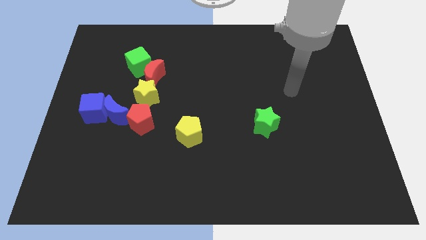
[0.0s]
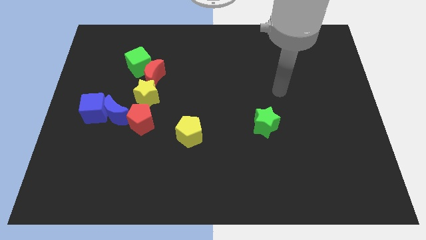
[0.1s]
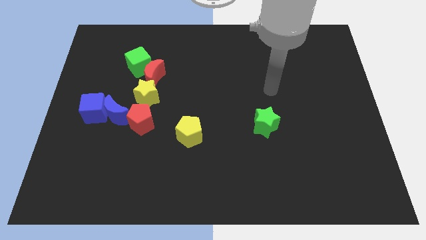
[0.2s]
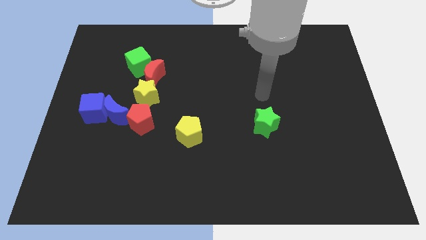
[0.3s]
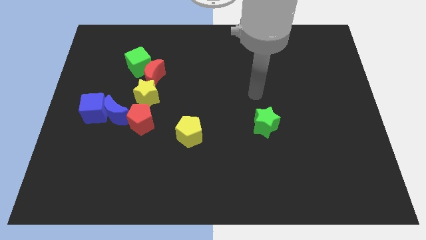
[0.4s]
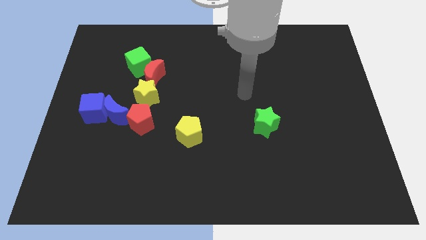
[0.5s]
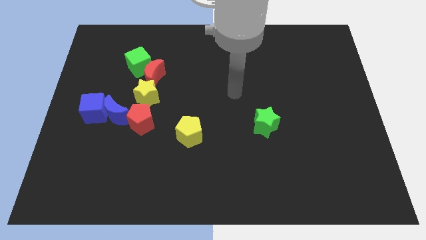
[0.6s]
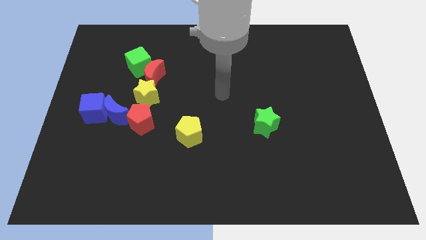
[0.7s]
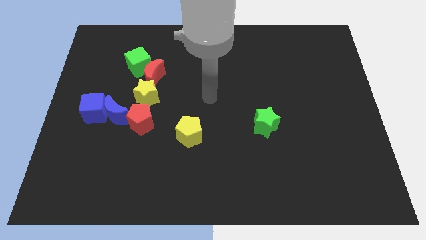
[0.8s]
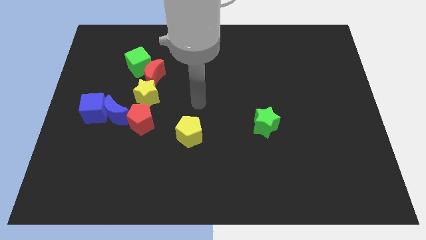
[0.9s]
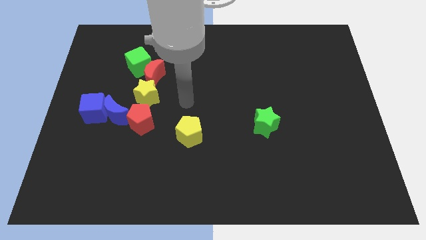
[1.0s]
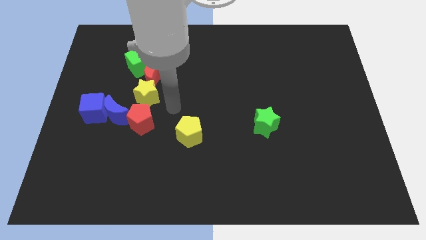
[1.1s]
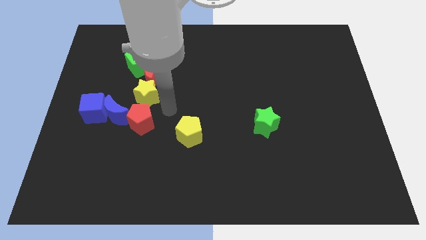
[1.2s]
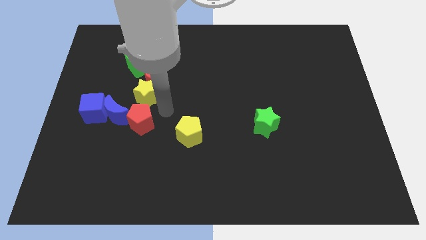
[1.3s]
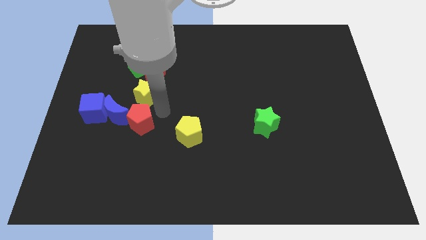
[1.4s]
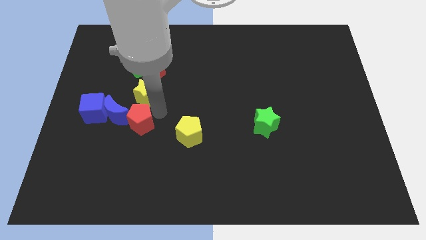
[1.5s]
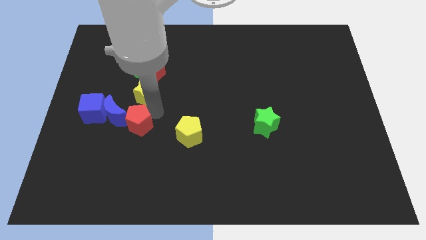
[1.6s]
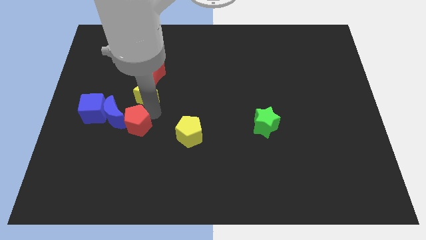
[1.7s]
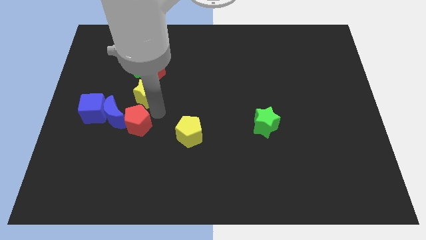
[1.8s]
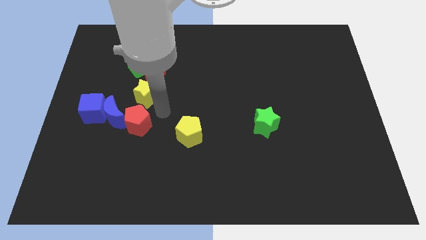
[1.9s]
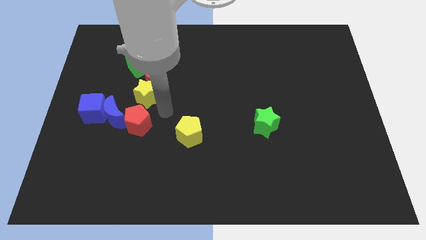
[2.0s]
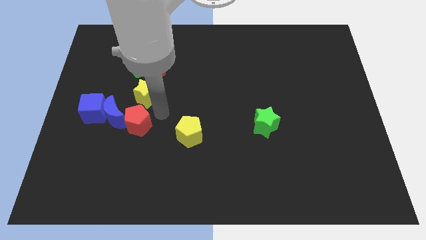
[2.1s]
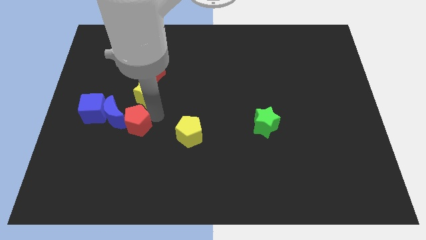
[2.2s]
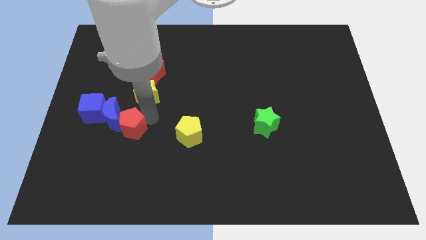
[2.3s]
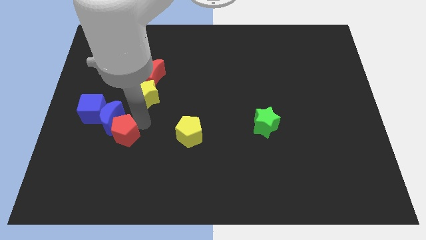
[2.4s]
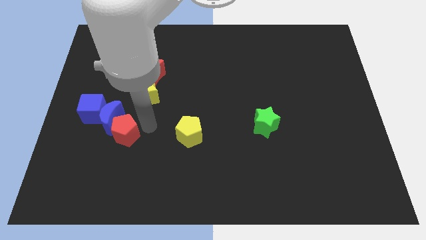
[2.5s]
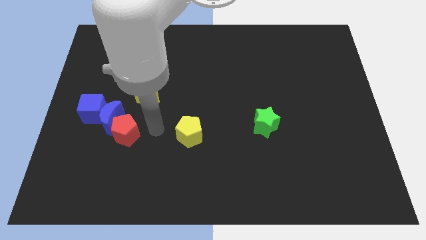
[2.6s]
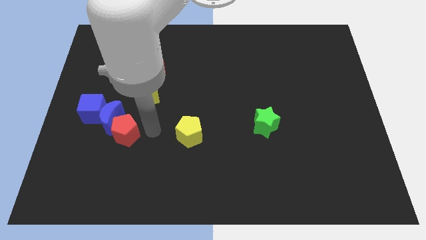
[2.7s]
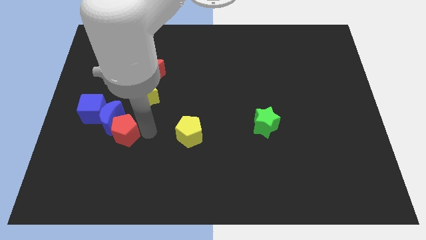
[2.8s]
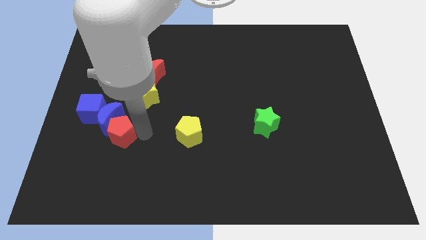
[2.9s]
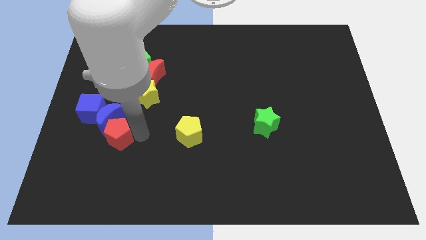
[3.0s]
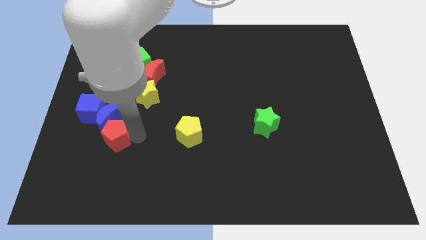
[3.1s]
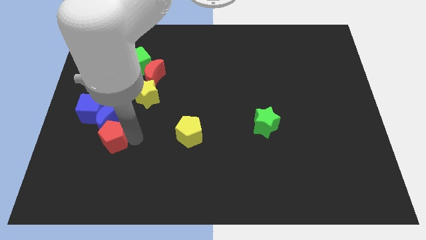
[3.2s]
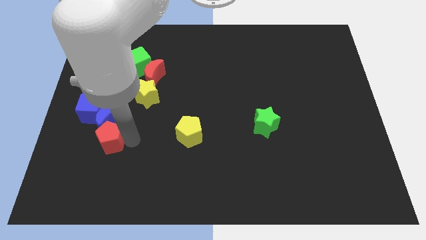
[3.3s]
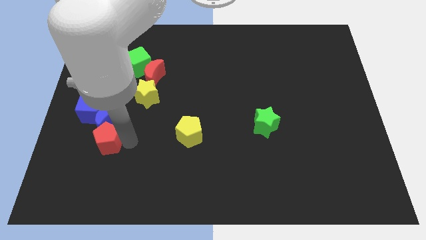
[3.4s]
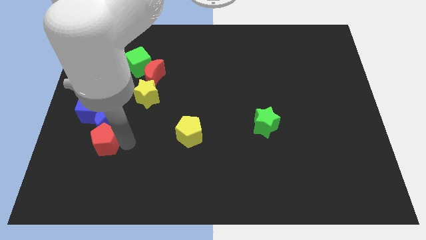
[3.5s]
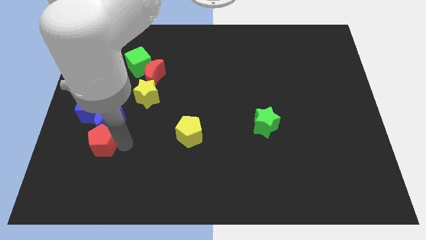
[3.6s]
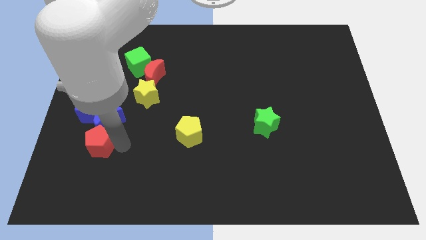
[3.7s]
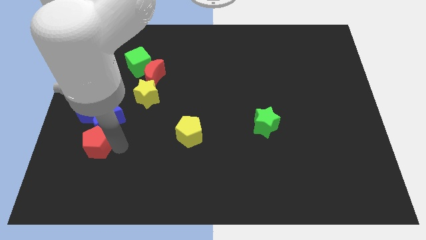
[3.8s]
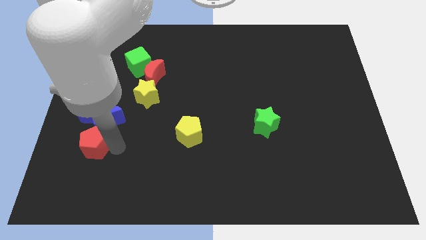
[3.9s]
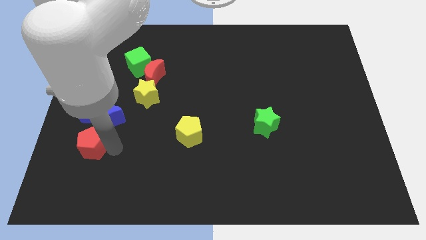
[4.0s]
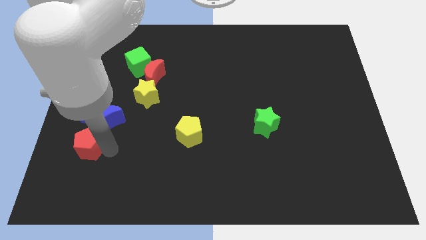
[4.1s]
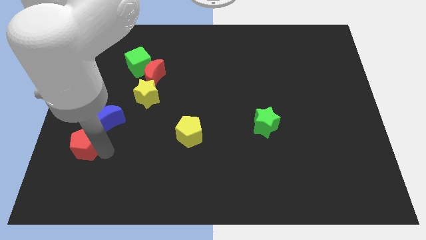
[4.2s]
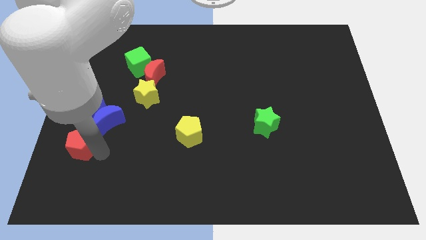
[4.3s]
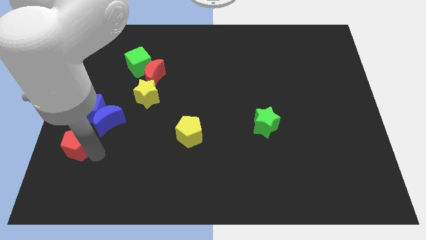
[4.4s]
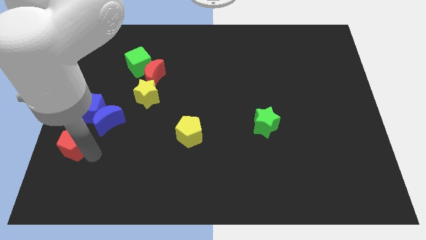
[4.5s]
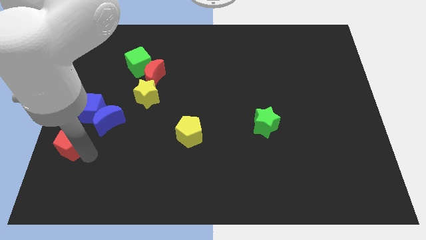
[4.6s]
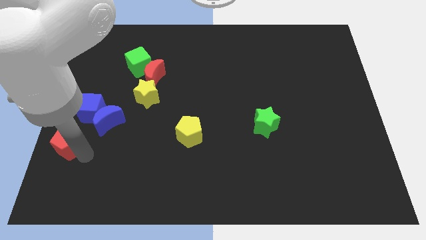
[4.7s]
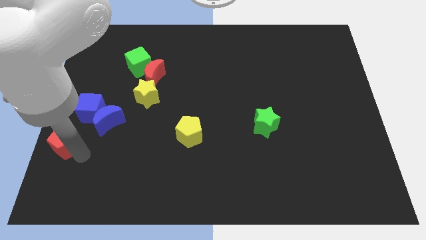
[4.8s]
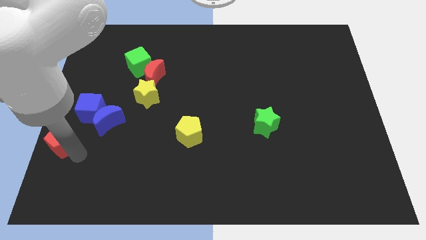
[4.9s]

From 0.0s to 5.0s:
slide the red pentagon to the center left

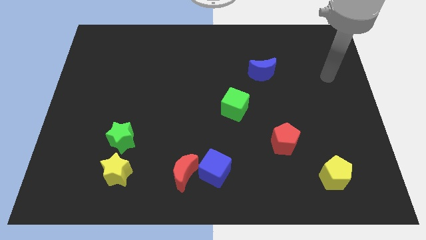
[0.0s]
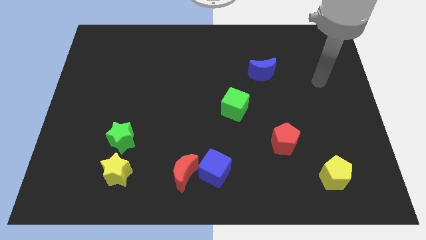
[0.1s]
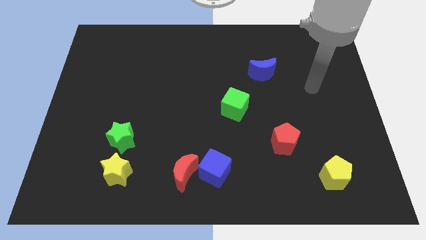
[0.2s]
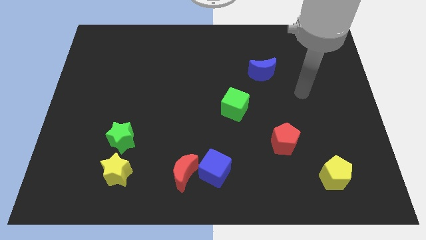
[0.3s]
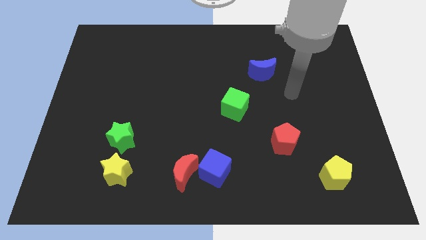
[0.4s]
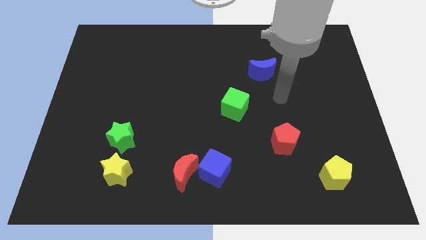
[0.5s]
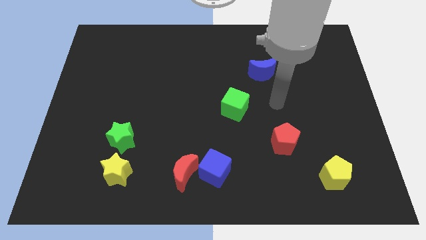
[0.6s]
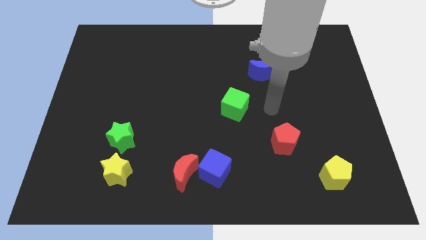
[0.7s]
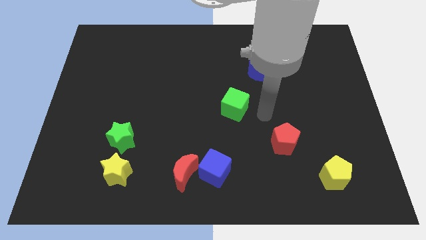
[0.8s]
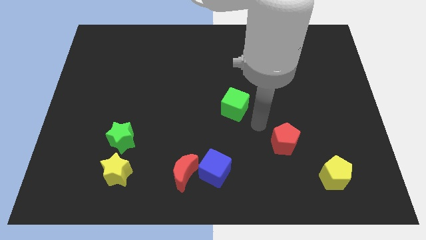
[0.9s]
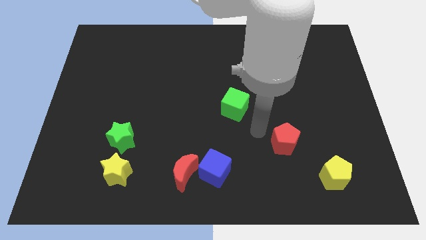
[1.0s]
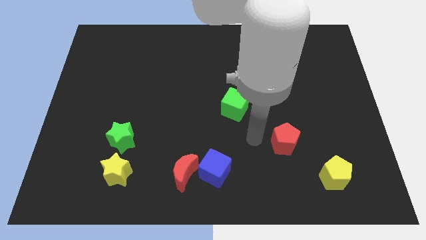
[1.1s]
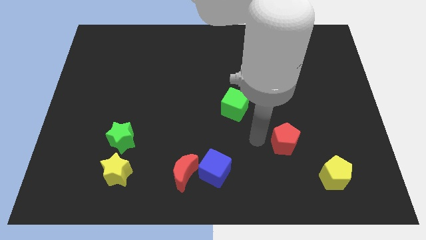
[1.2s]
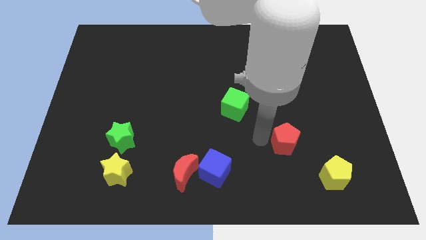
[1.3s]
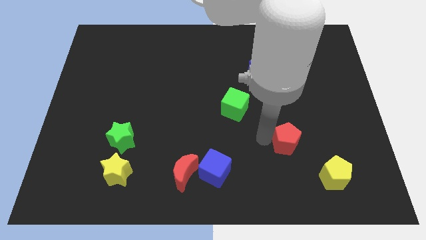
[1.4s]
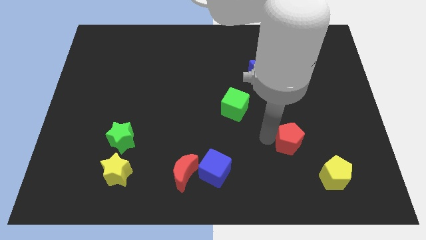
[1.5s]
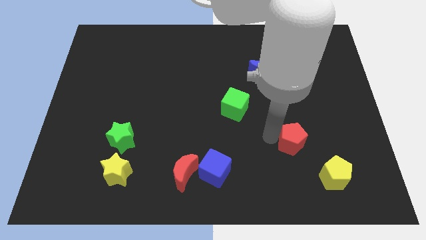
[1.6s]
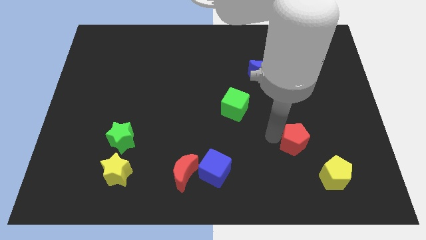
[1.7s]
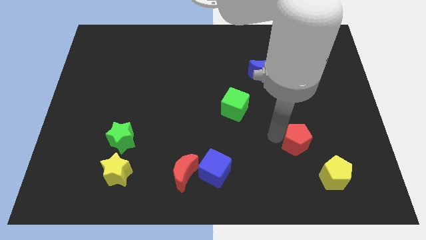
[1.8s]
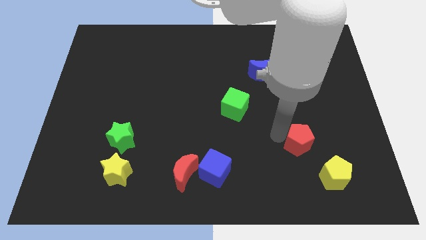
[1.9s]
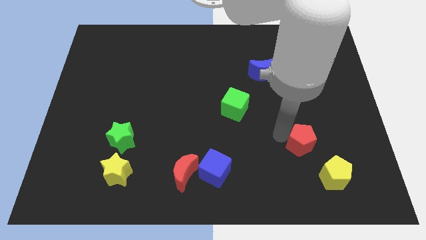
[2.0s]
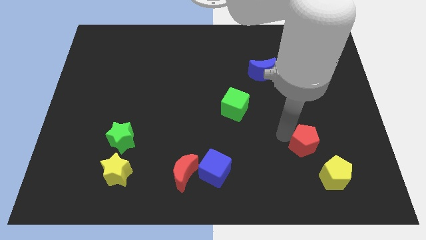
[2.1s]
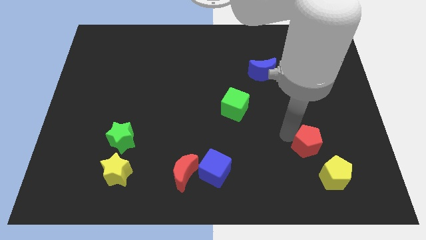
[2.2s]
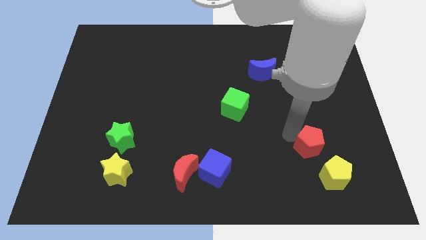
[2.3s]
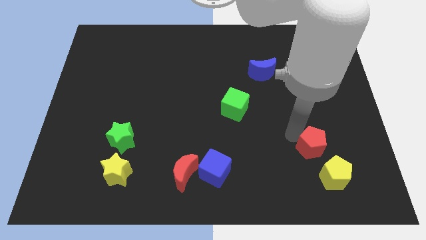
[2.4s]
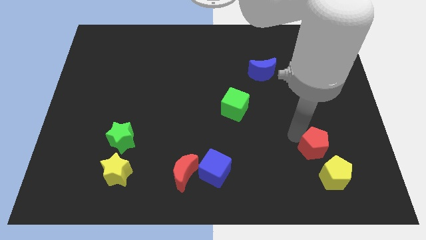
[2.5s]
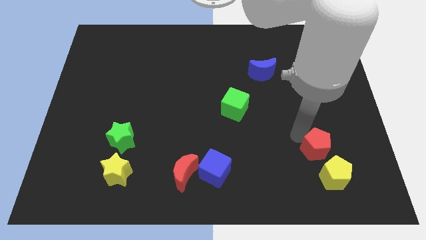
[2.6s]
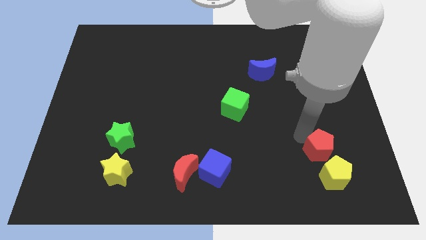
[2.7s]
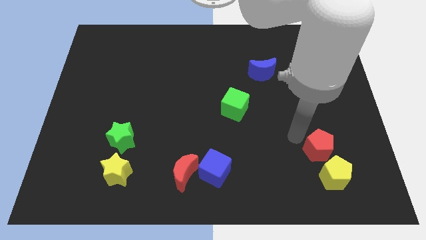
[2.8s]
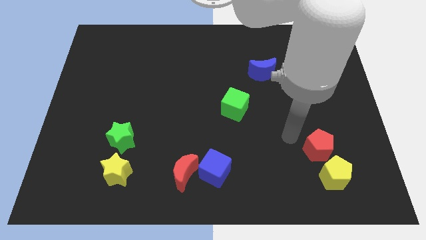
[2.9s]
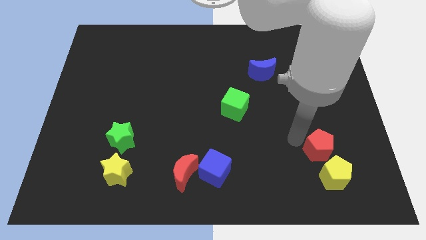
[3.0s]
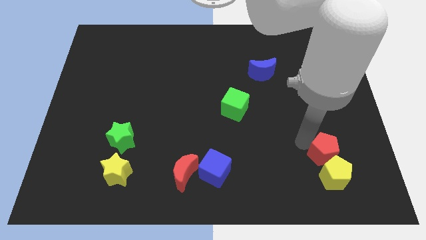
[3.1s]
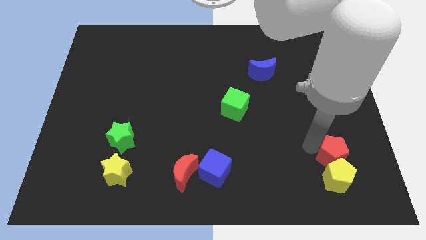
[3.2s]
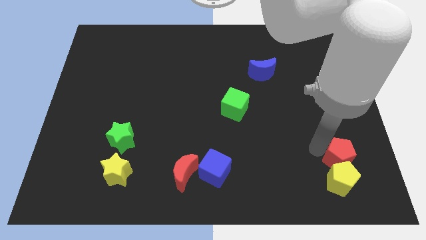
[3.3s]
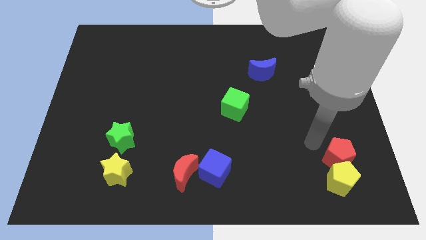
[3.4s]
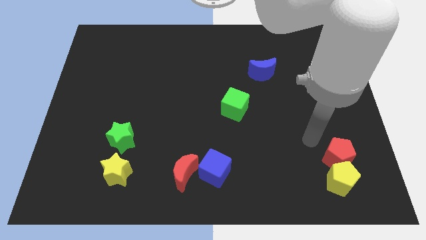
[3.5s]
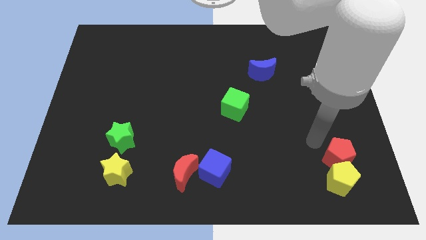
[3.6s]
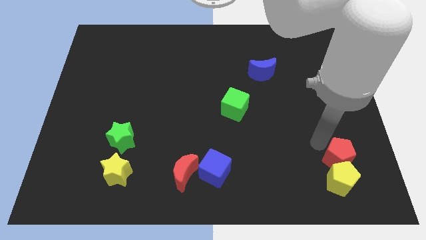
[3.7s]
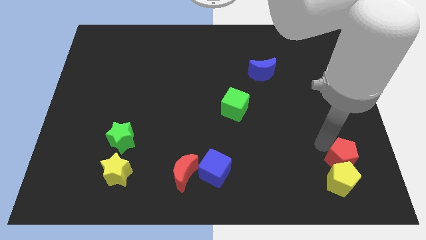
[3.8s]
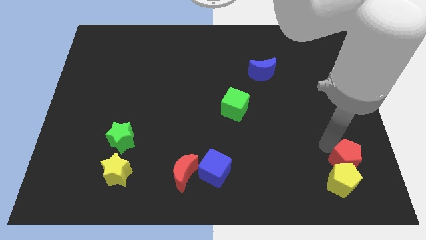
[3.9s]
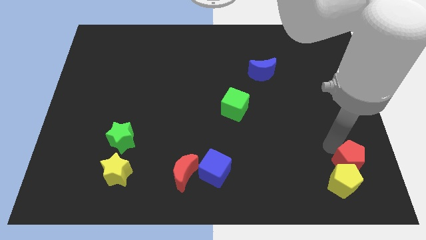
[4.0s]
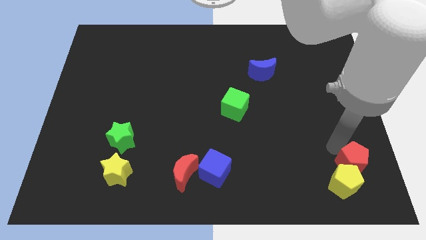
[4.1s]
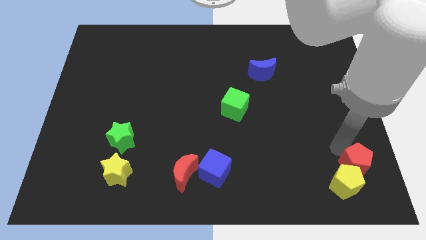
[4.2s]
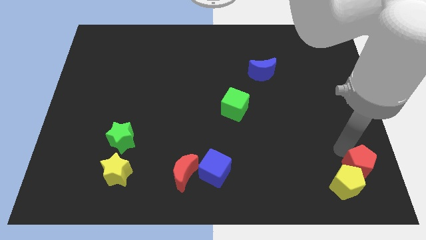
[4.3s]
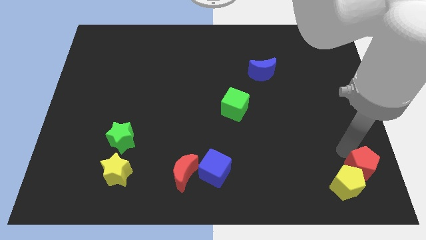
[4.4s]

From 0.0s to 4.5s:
put the red pentagon to the bottom right
